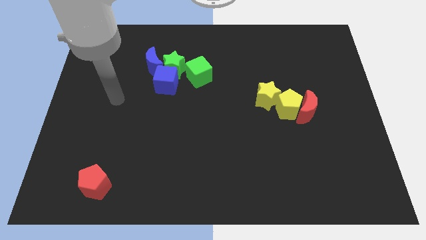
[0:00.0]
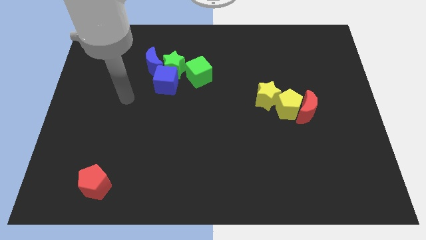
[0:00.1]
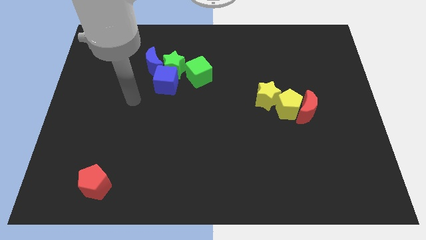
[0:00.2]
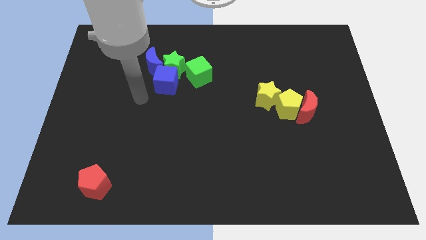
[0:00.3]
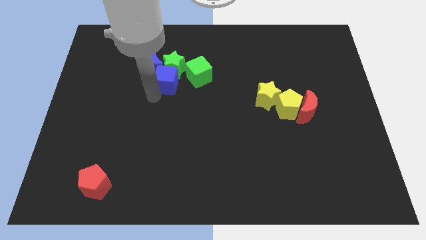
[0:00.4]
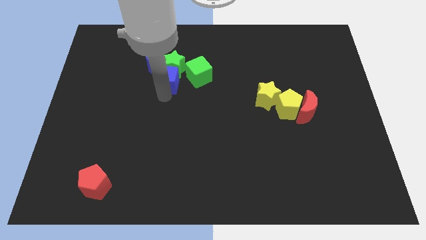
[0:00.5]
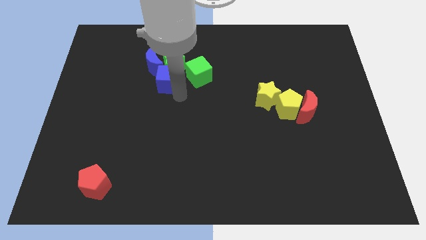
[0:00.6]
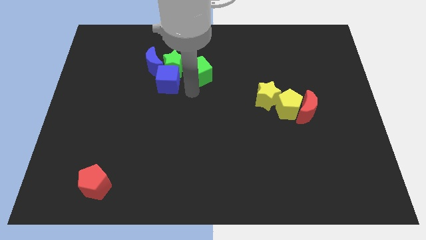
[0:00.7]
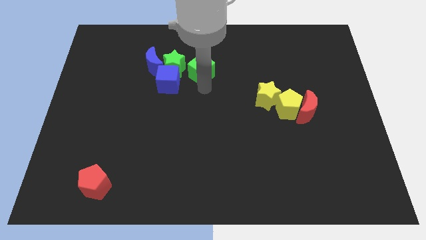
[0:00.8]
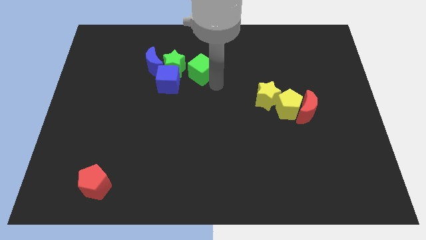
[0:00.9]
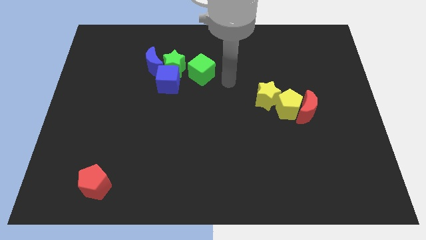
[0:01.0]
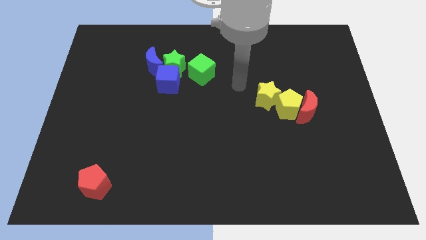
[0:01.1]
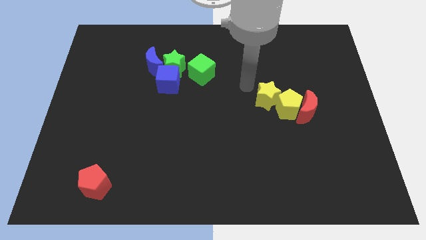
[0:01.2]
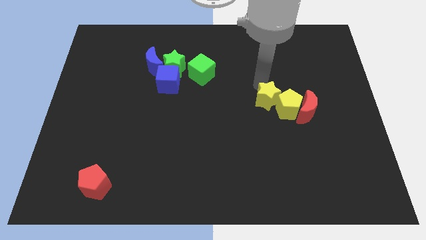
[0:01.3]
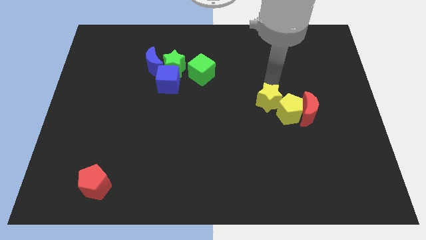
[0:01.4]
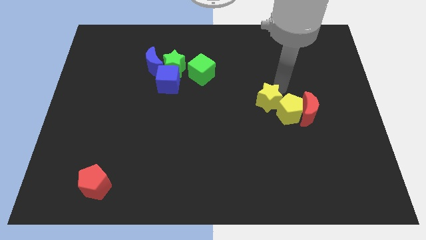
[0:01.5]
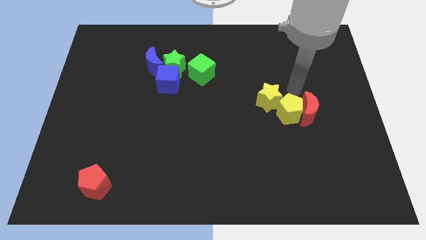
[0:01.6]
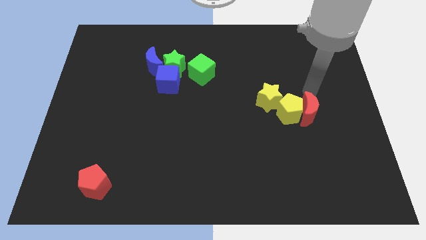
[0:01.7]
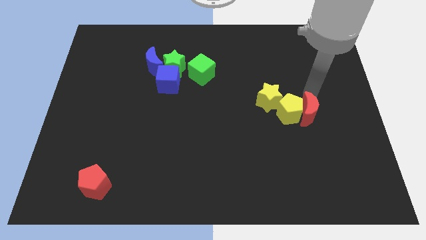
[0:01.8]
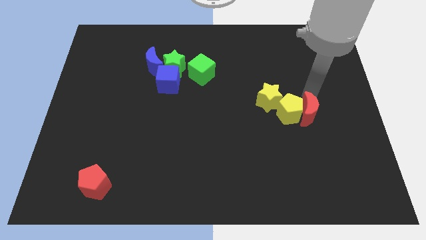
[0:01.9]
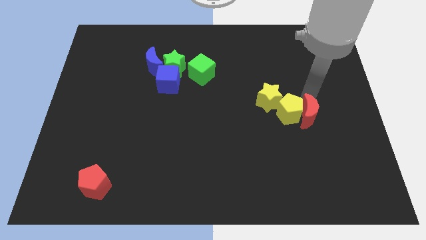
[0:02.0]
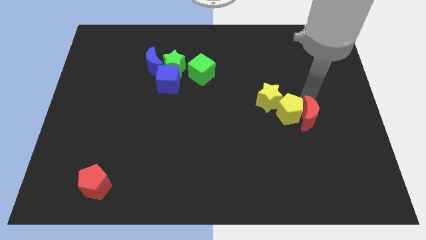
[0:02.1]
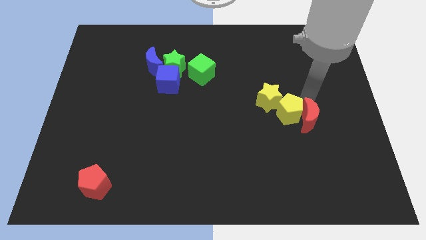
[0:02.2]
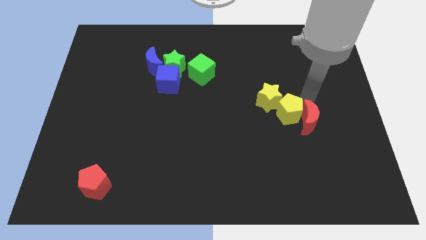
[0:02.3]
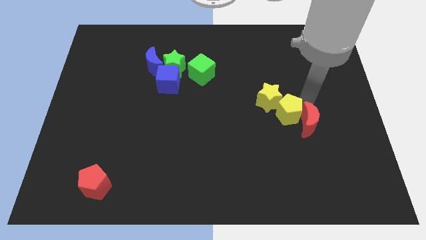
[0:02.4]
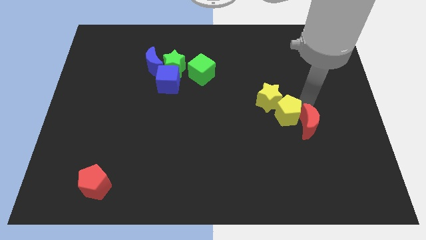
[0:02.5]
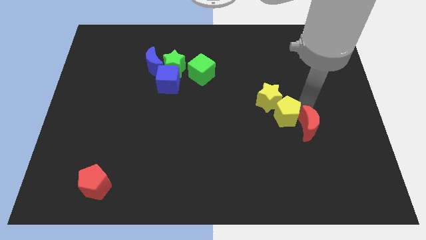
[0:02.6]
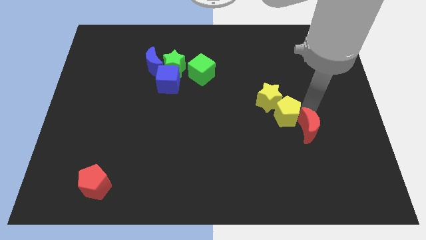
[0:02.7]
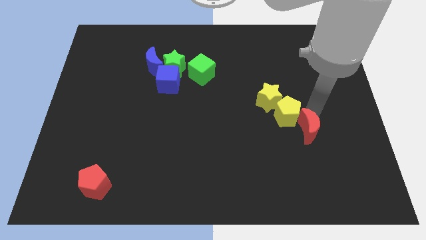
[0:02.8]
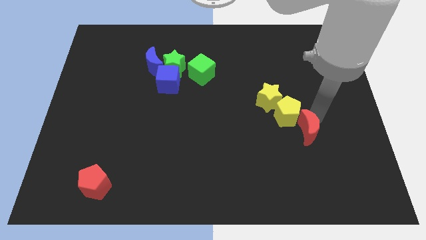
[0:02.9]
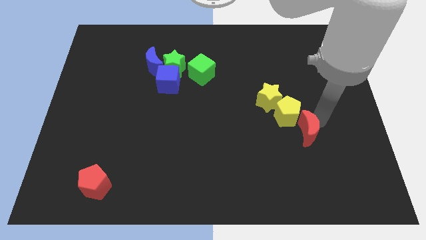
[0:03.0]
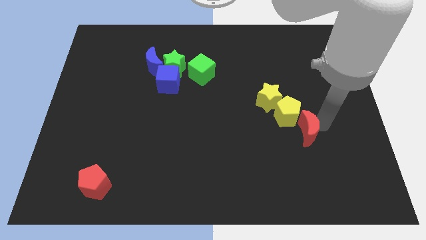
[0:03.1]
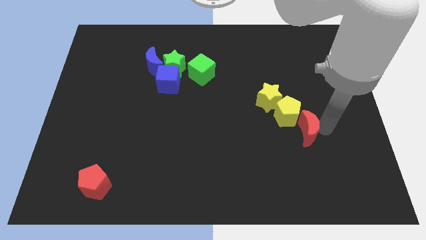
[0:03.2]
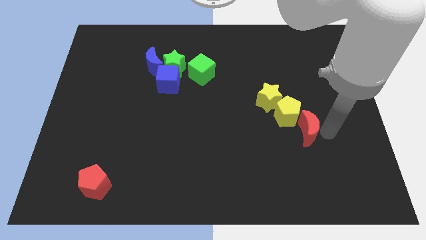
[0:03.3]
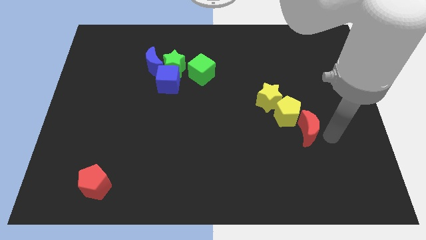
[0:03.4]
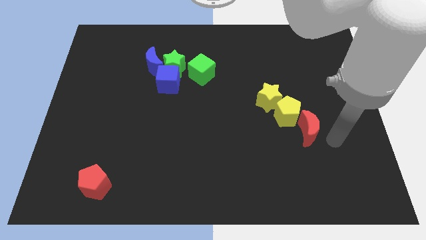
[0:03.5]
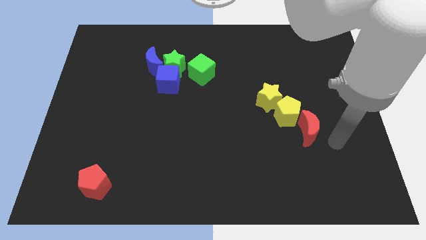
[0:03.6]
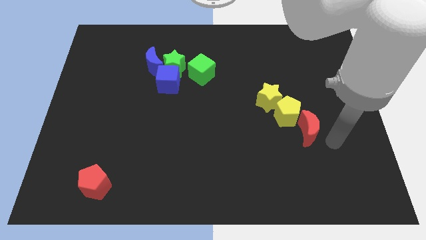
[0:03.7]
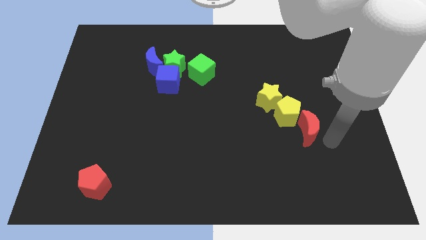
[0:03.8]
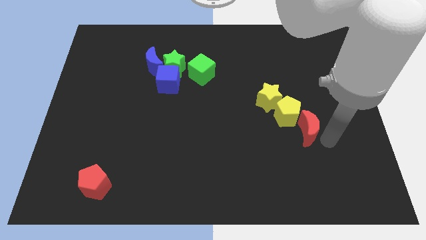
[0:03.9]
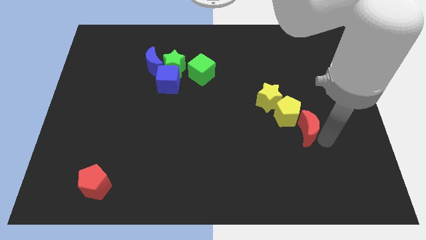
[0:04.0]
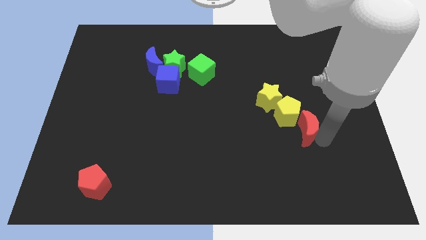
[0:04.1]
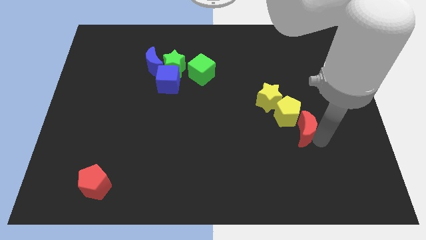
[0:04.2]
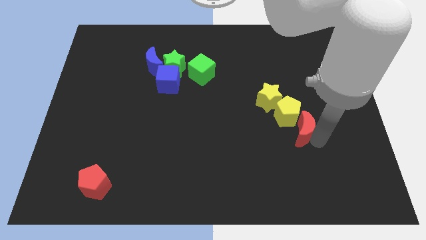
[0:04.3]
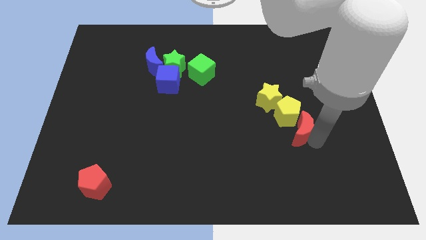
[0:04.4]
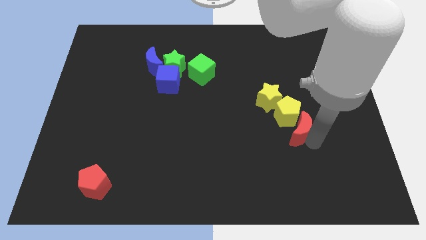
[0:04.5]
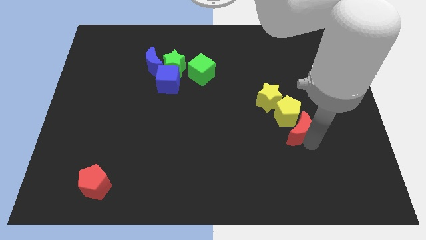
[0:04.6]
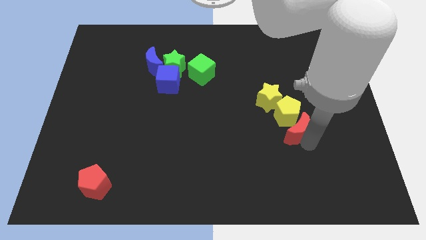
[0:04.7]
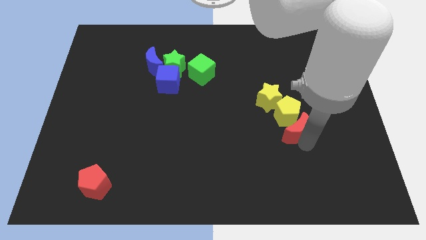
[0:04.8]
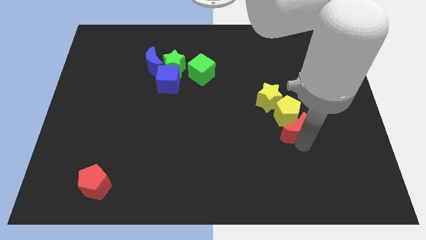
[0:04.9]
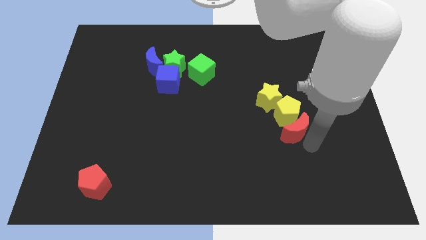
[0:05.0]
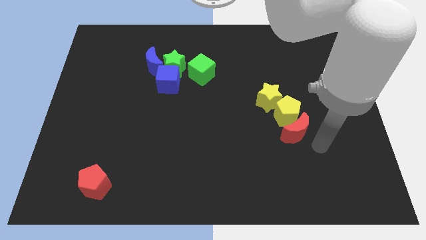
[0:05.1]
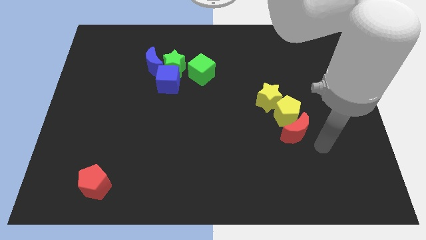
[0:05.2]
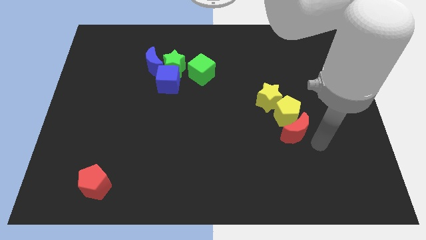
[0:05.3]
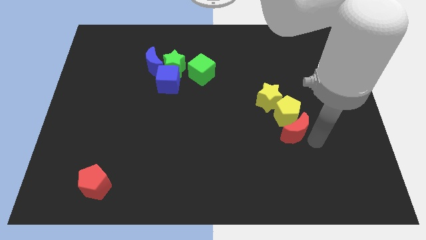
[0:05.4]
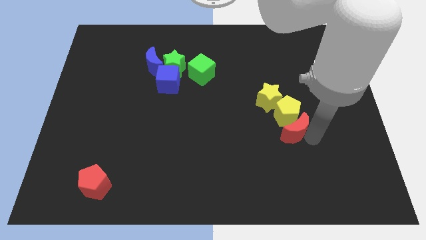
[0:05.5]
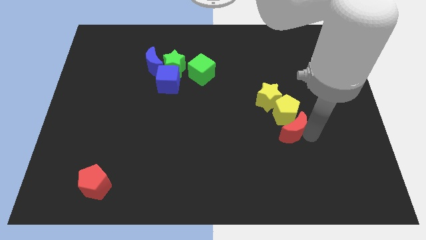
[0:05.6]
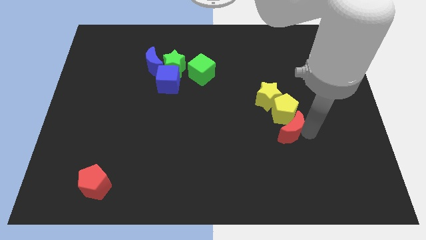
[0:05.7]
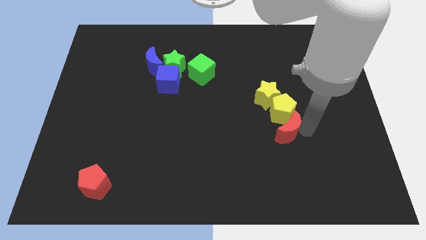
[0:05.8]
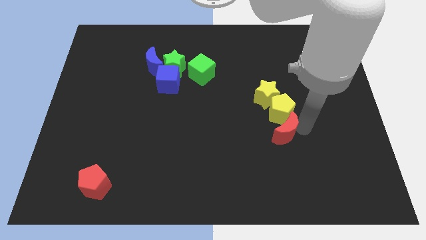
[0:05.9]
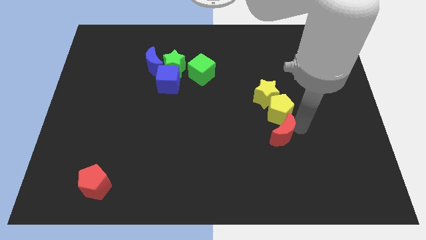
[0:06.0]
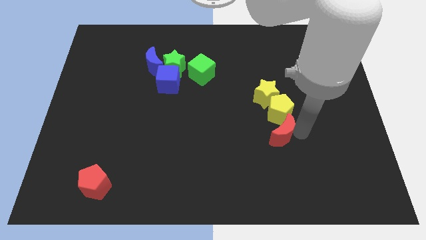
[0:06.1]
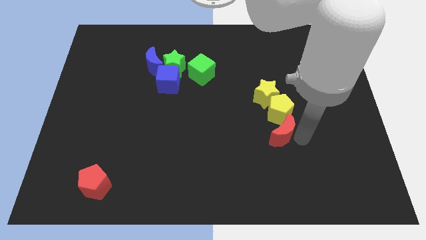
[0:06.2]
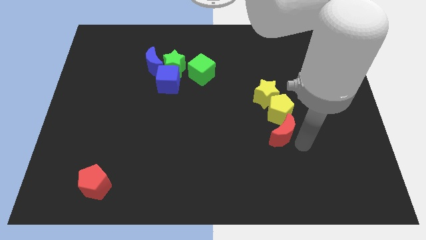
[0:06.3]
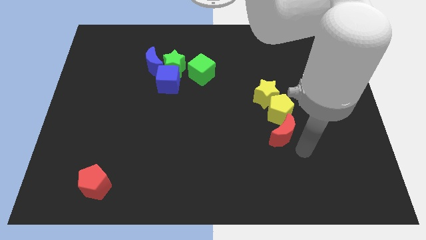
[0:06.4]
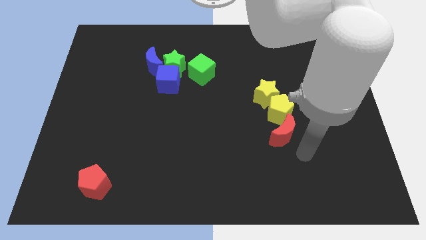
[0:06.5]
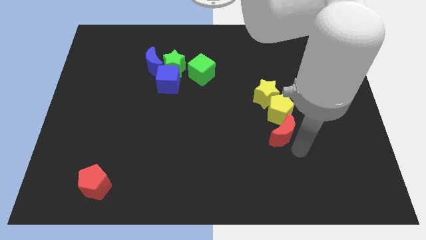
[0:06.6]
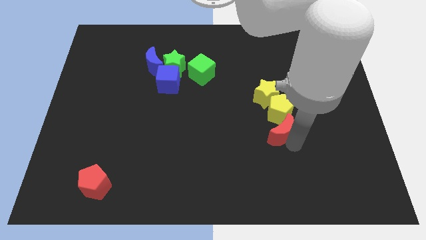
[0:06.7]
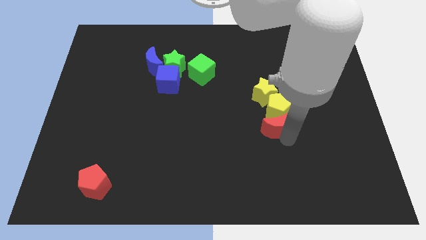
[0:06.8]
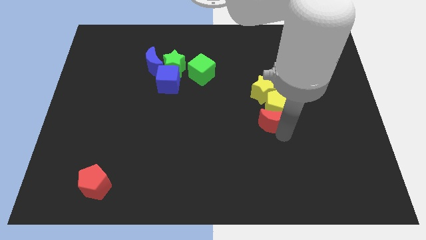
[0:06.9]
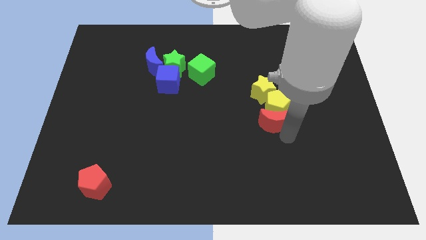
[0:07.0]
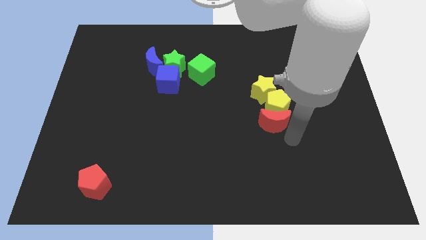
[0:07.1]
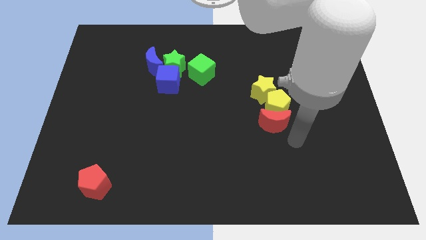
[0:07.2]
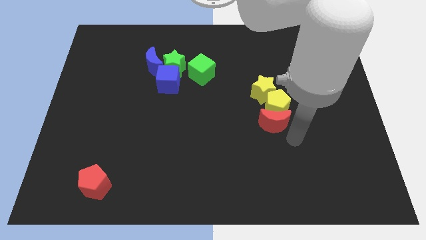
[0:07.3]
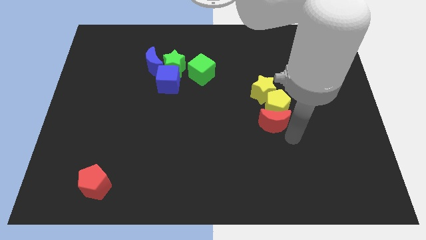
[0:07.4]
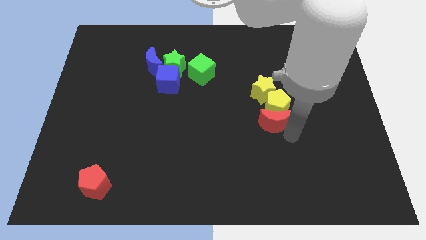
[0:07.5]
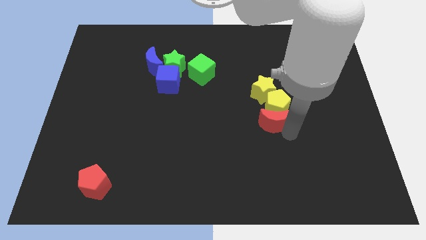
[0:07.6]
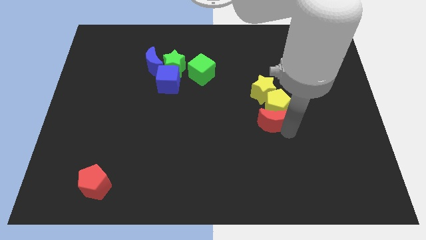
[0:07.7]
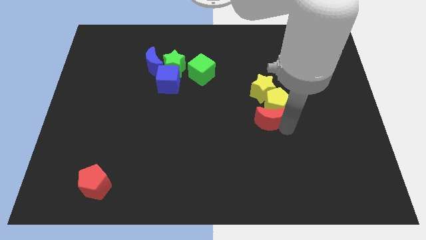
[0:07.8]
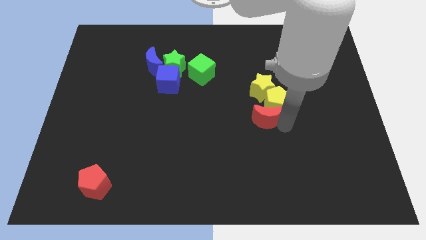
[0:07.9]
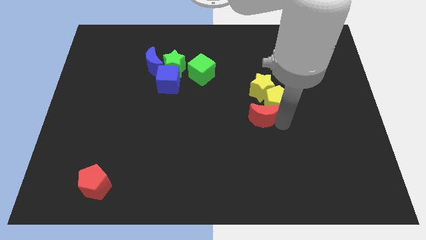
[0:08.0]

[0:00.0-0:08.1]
move the red moon to the middle
